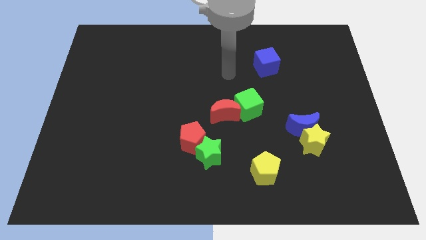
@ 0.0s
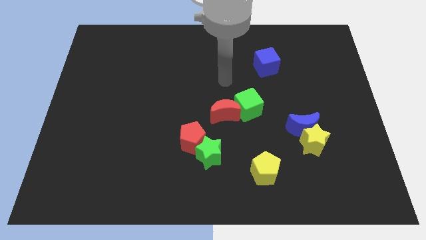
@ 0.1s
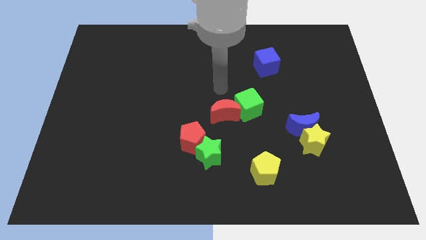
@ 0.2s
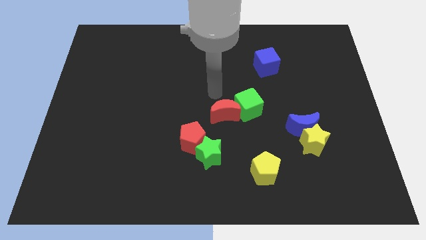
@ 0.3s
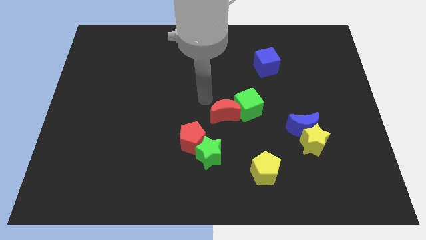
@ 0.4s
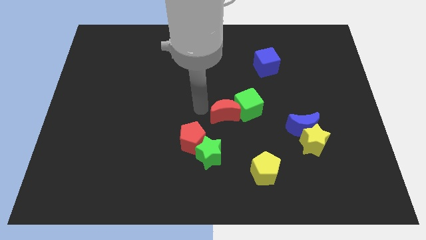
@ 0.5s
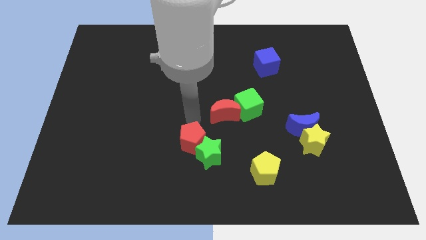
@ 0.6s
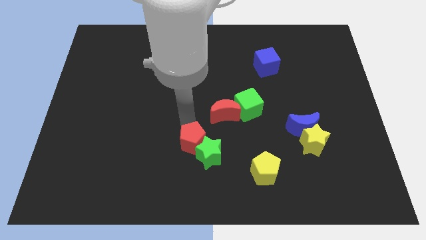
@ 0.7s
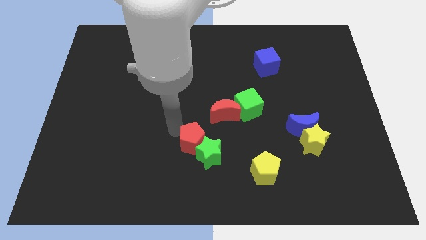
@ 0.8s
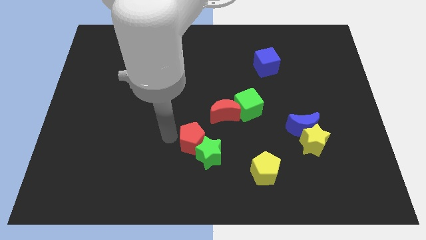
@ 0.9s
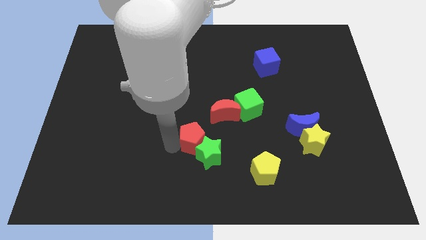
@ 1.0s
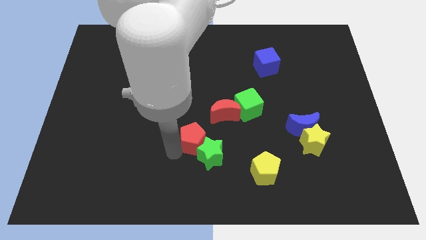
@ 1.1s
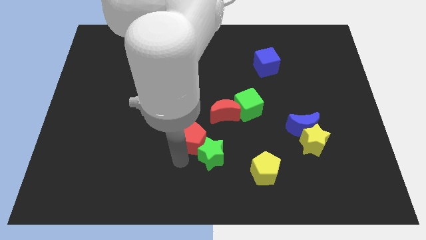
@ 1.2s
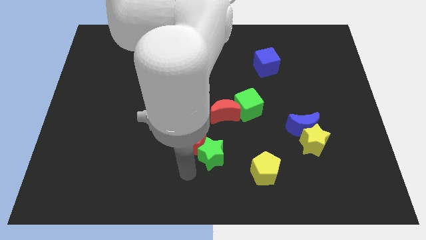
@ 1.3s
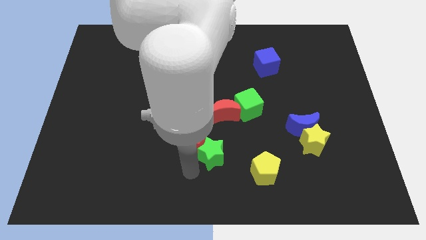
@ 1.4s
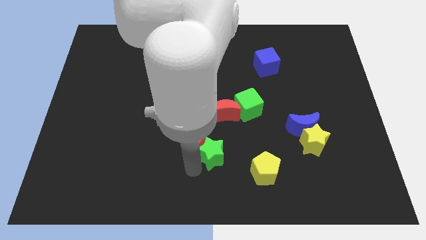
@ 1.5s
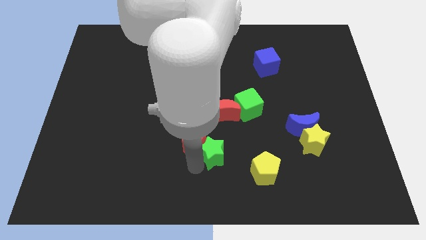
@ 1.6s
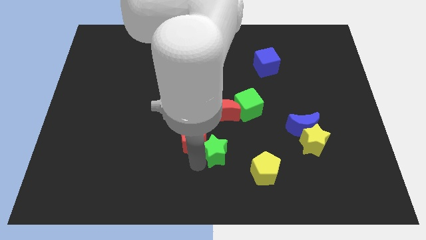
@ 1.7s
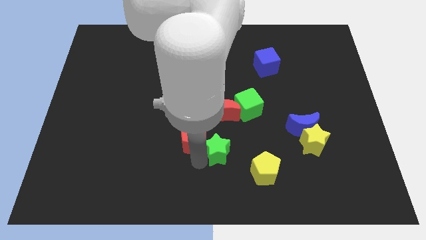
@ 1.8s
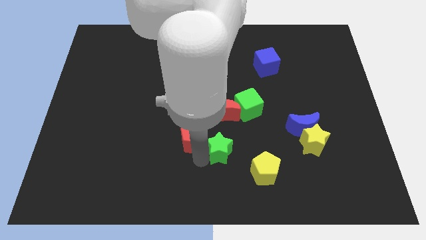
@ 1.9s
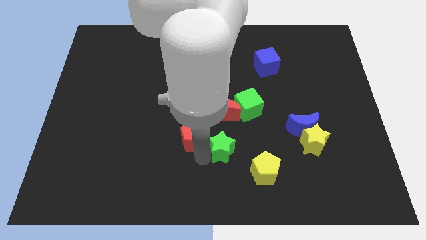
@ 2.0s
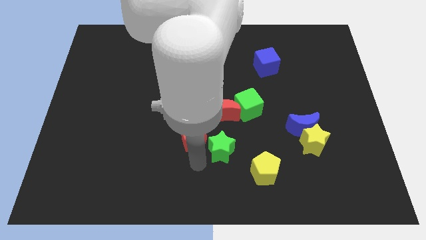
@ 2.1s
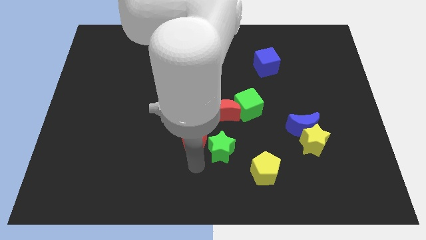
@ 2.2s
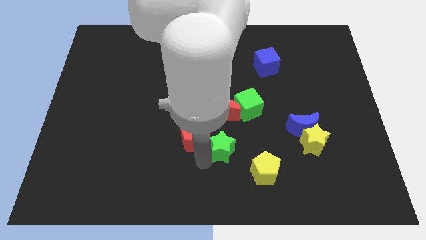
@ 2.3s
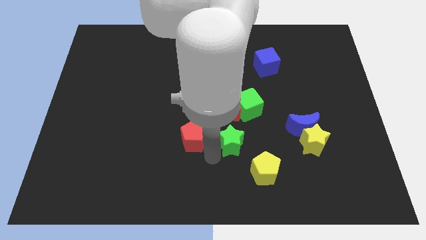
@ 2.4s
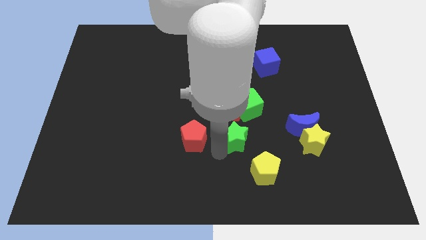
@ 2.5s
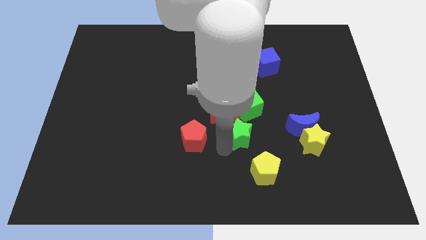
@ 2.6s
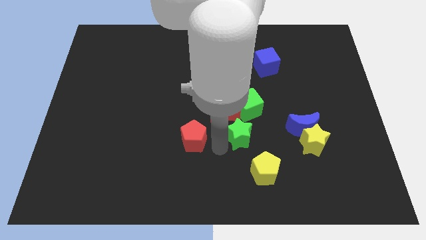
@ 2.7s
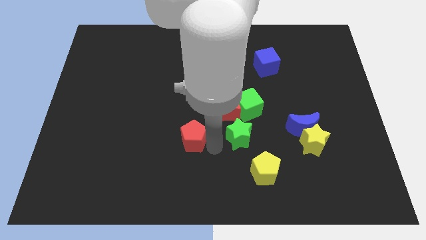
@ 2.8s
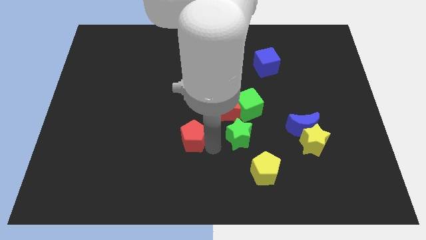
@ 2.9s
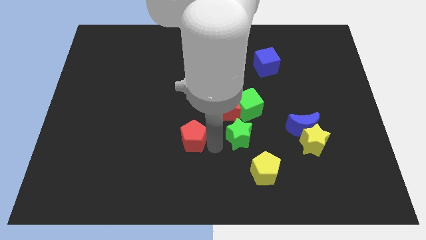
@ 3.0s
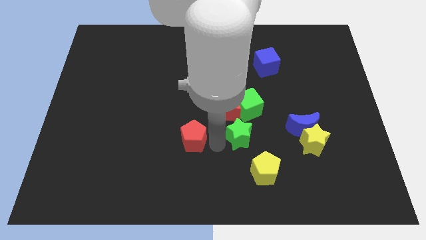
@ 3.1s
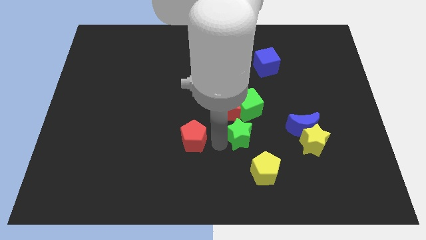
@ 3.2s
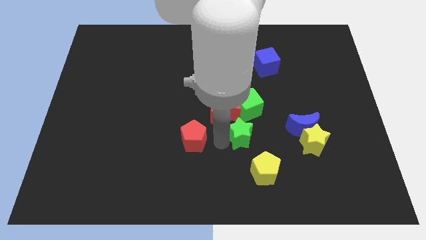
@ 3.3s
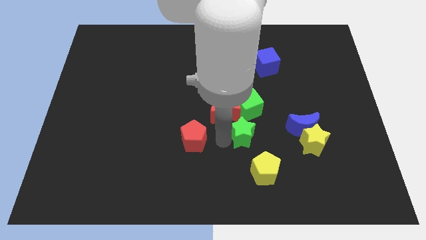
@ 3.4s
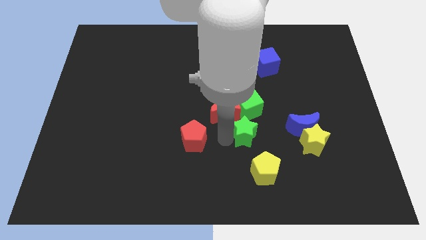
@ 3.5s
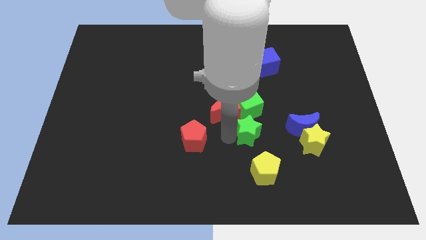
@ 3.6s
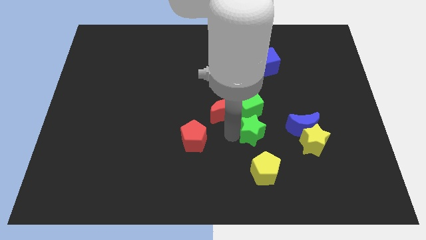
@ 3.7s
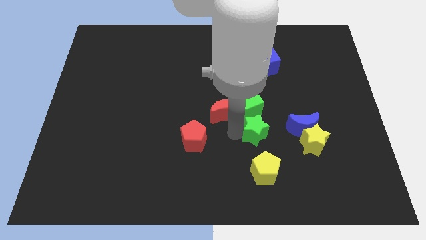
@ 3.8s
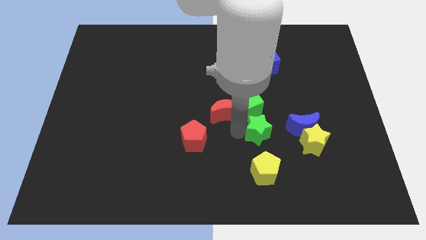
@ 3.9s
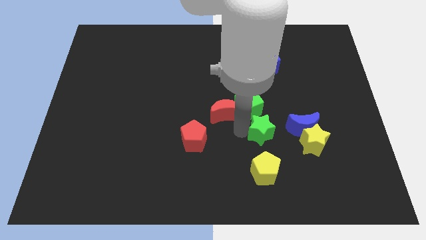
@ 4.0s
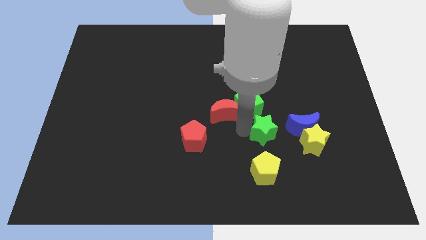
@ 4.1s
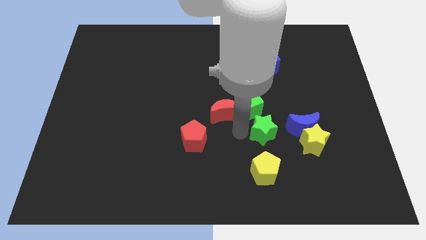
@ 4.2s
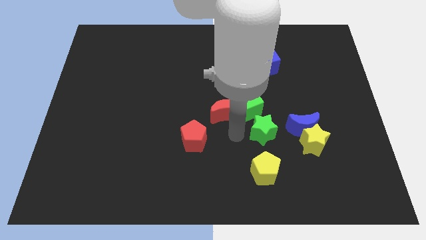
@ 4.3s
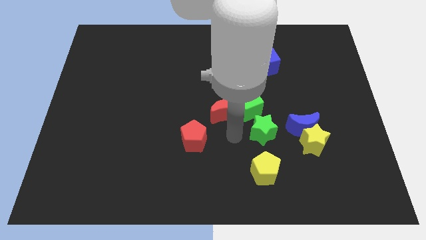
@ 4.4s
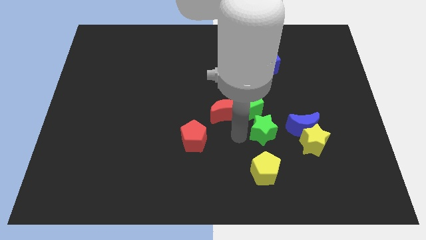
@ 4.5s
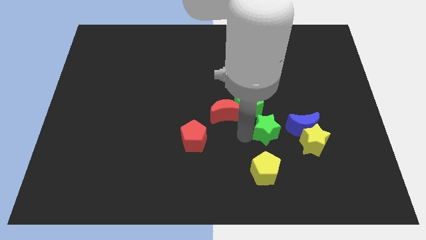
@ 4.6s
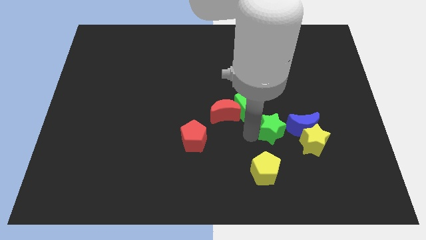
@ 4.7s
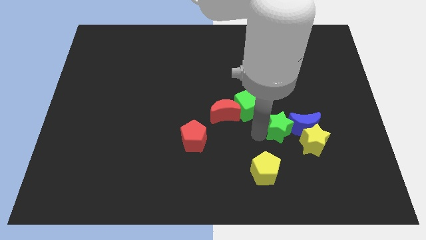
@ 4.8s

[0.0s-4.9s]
move the green star towards the blue moon

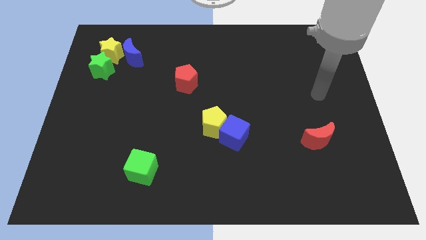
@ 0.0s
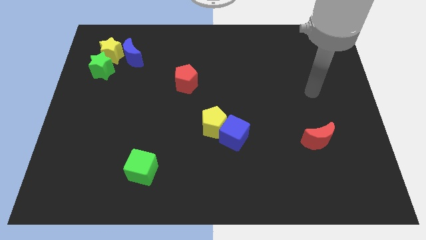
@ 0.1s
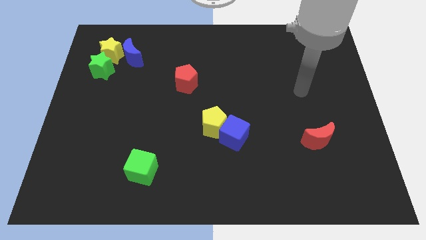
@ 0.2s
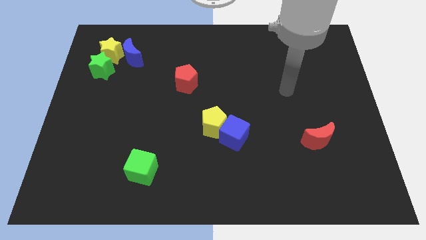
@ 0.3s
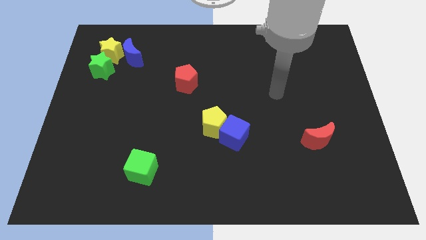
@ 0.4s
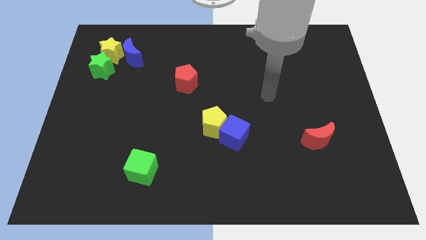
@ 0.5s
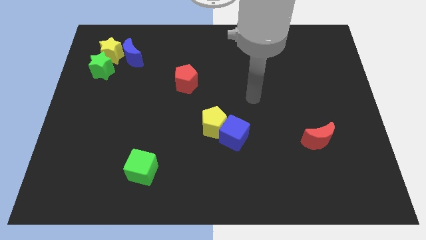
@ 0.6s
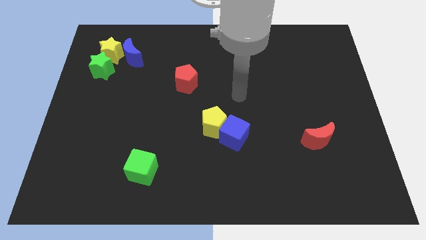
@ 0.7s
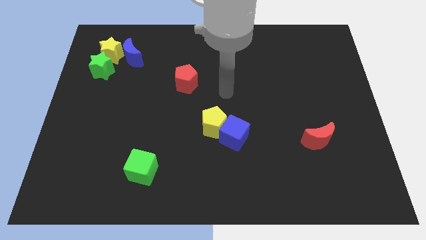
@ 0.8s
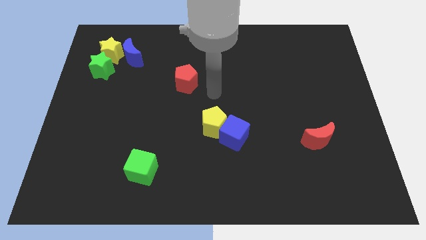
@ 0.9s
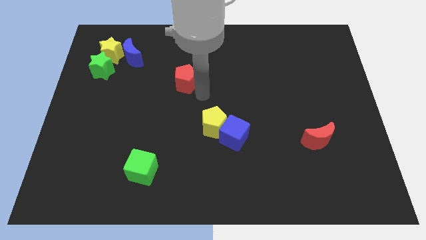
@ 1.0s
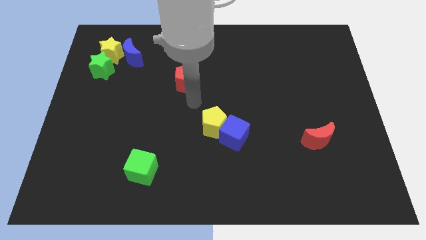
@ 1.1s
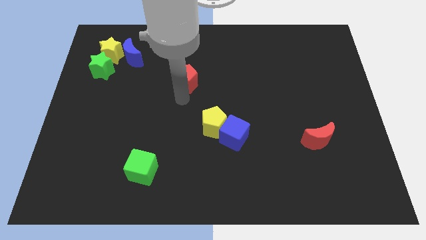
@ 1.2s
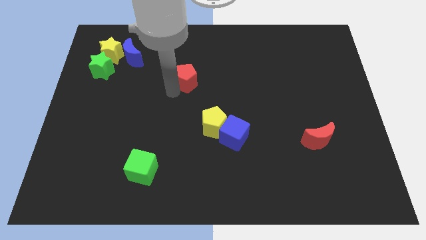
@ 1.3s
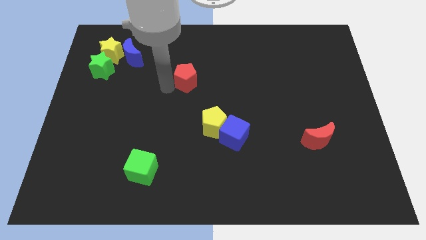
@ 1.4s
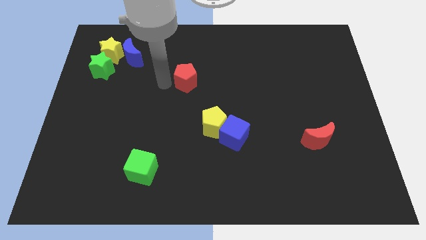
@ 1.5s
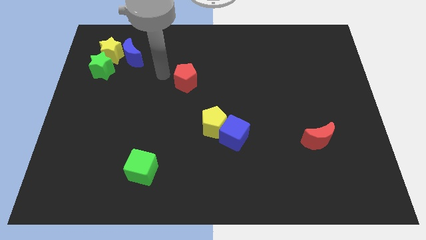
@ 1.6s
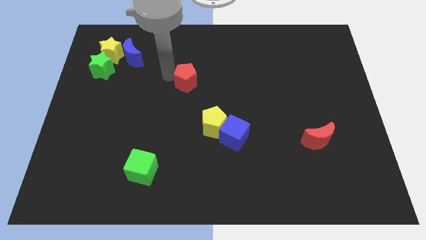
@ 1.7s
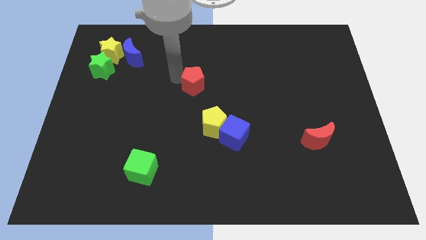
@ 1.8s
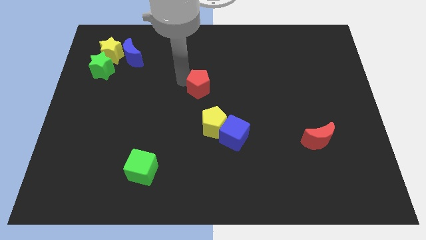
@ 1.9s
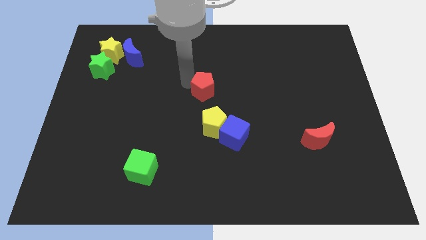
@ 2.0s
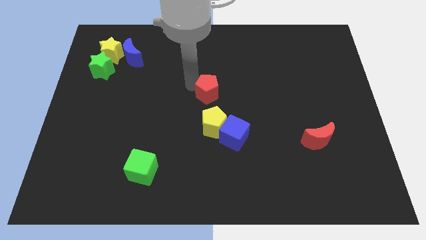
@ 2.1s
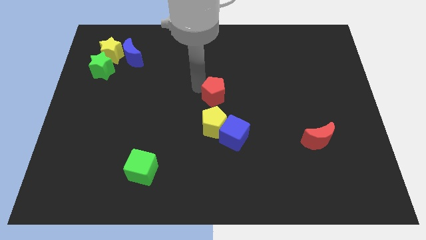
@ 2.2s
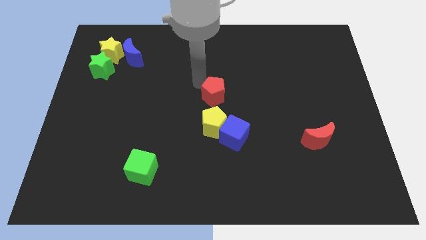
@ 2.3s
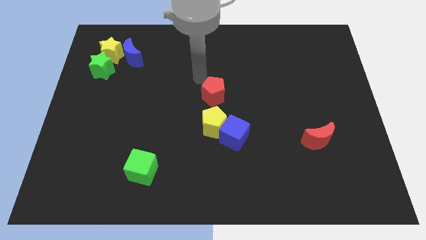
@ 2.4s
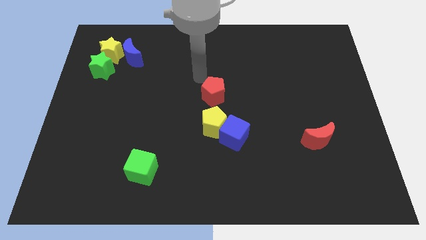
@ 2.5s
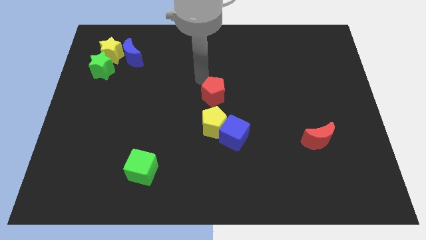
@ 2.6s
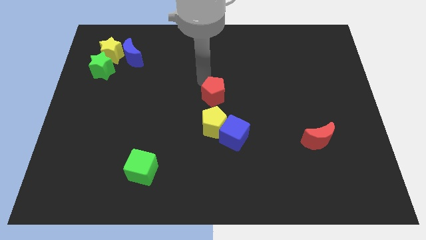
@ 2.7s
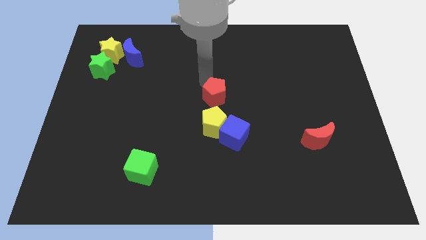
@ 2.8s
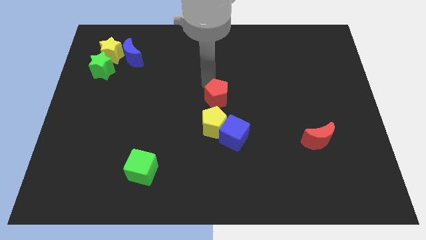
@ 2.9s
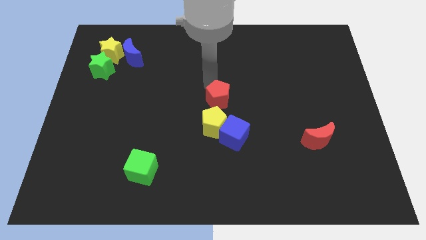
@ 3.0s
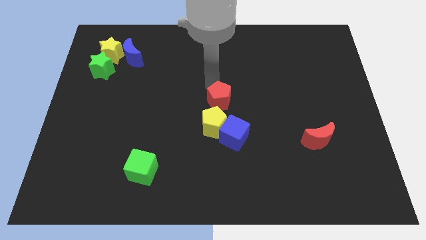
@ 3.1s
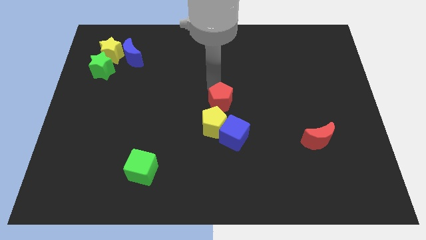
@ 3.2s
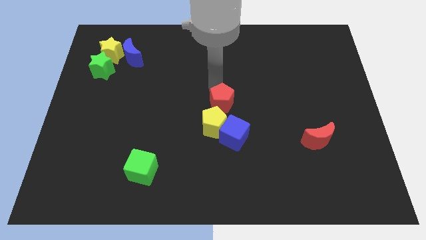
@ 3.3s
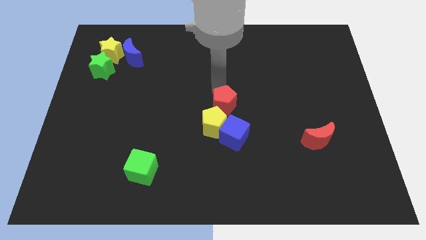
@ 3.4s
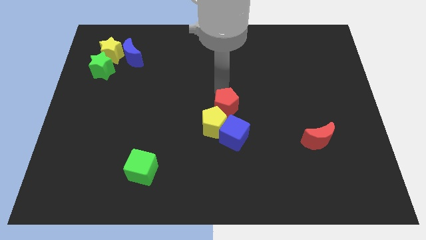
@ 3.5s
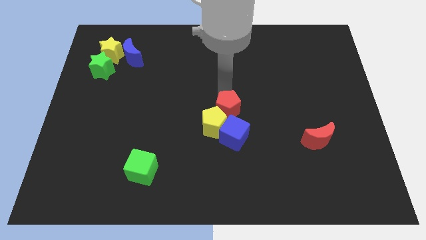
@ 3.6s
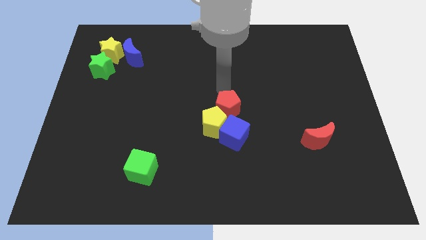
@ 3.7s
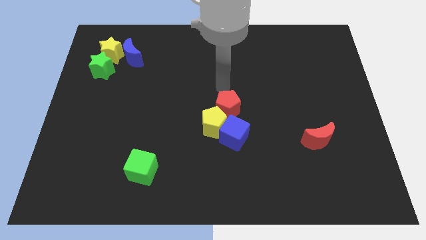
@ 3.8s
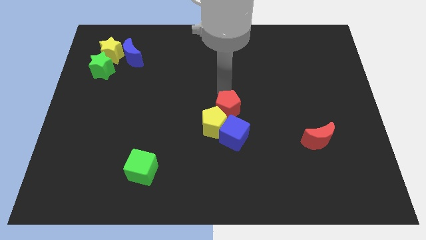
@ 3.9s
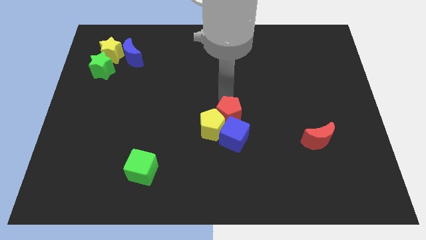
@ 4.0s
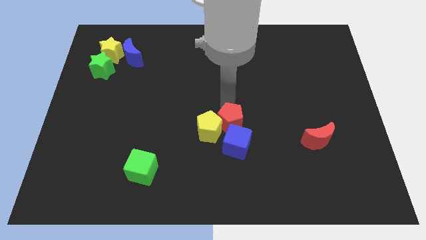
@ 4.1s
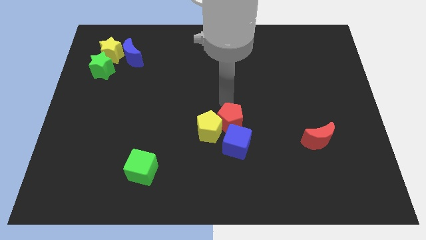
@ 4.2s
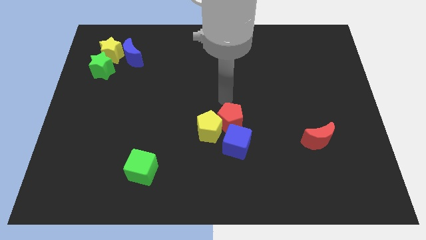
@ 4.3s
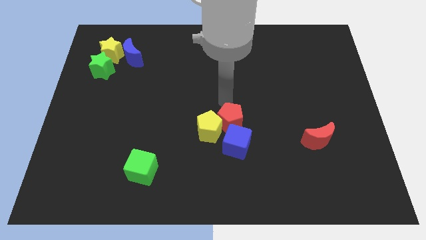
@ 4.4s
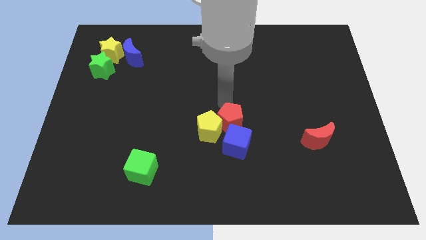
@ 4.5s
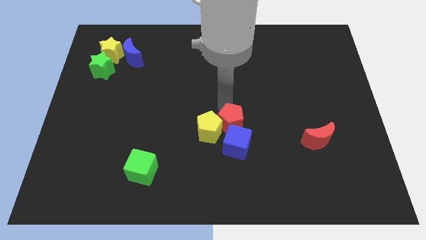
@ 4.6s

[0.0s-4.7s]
slide the red pentagon close to the blue cube
